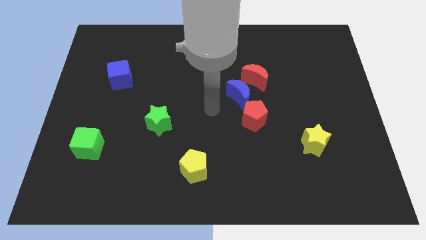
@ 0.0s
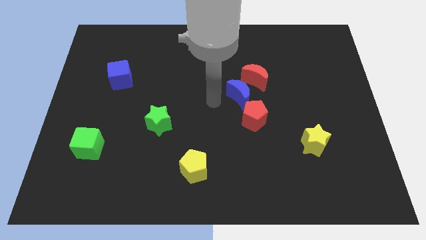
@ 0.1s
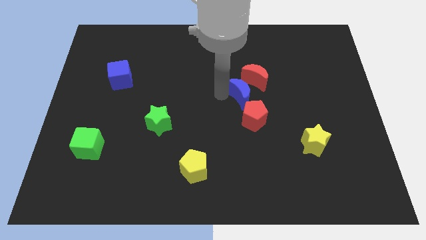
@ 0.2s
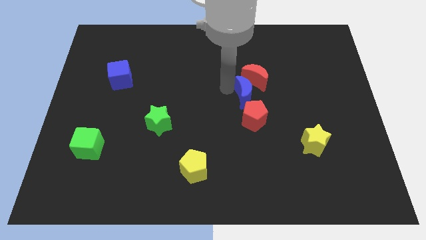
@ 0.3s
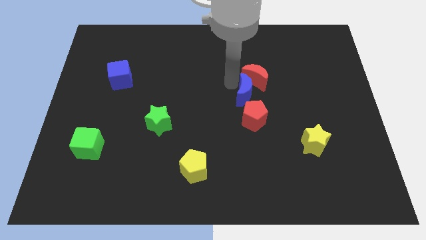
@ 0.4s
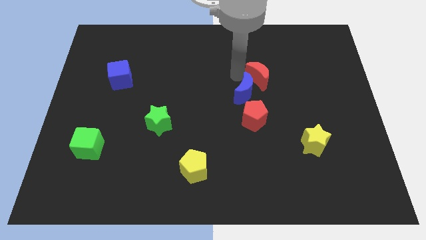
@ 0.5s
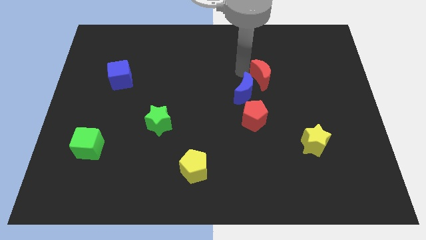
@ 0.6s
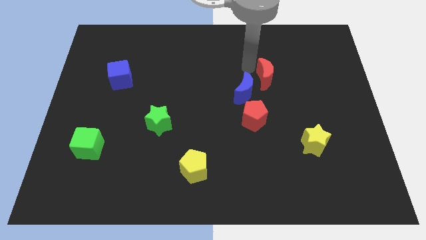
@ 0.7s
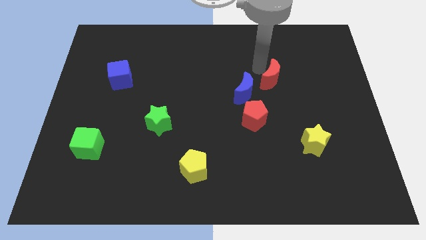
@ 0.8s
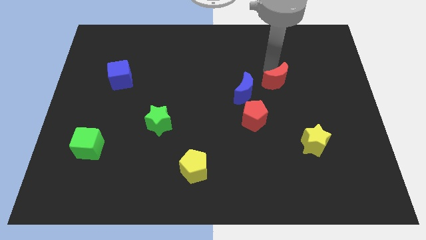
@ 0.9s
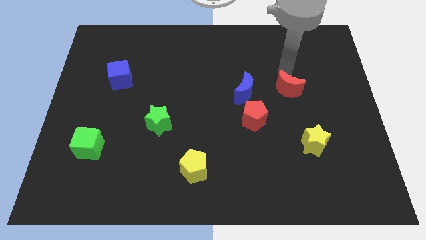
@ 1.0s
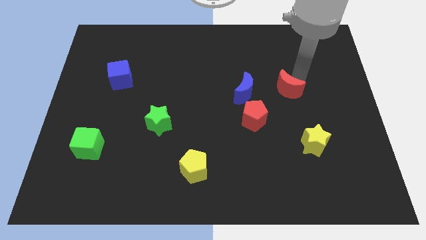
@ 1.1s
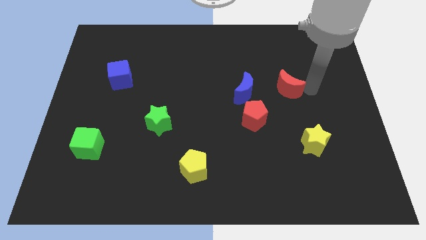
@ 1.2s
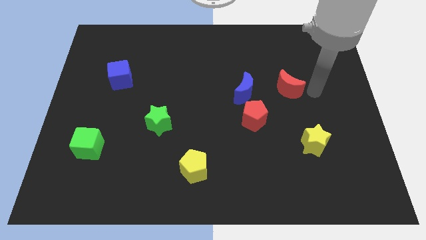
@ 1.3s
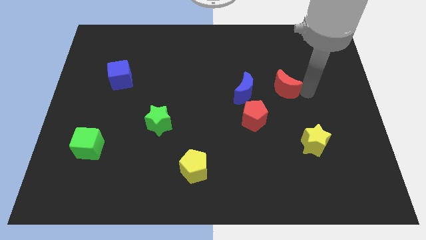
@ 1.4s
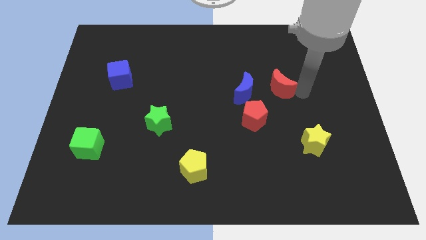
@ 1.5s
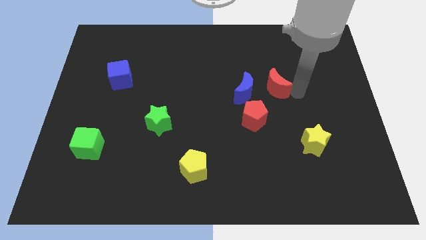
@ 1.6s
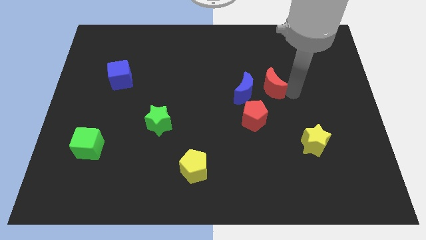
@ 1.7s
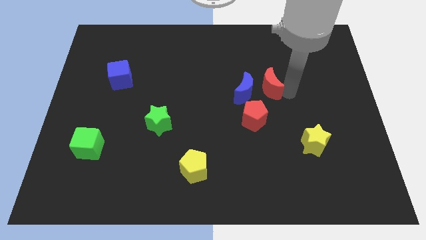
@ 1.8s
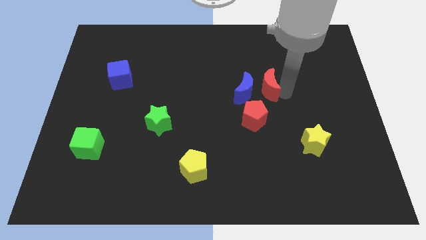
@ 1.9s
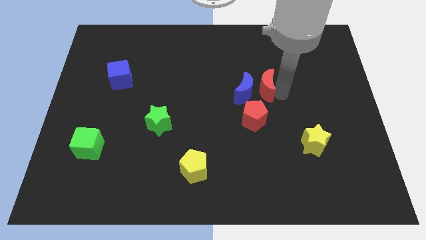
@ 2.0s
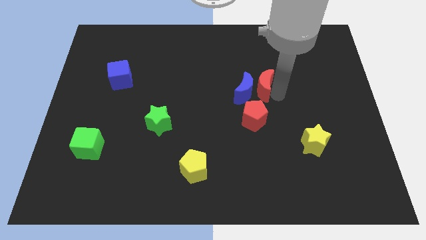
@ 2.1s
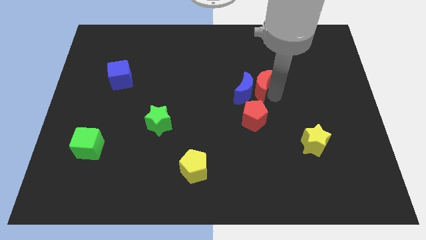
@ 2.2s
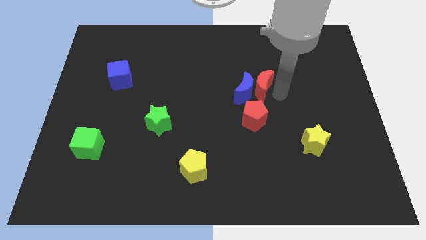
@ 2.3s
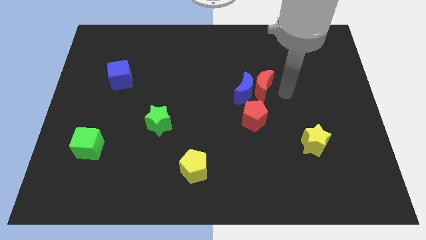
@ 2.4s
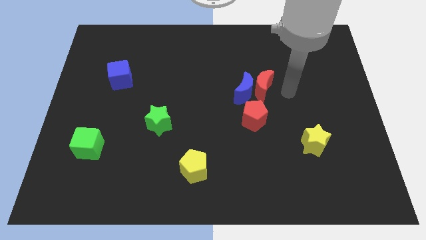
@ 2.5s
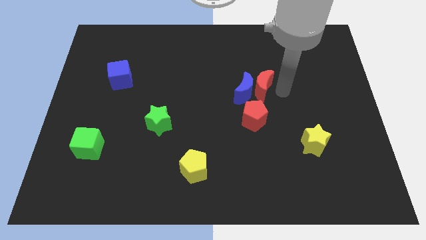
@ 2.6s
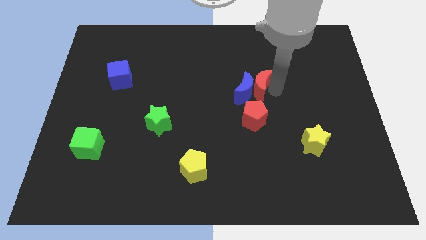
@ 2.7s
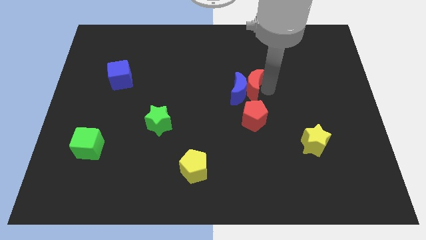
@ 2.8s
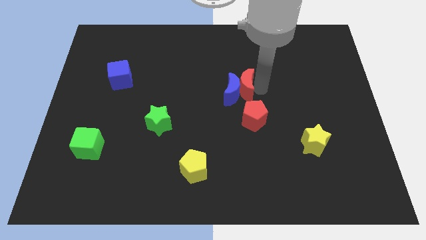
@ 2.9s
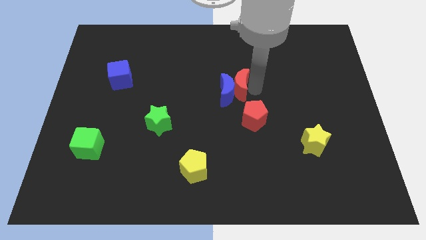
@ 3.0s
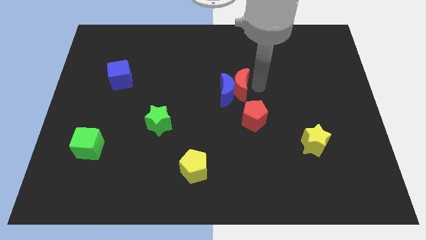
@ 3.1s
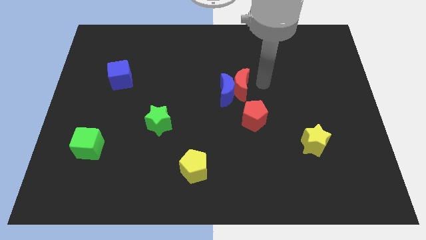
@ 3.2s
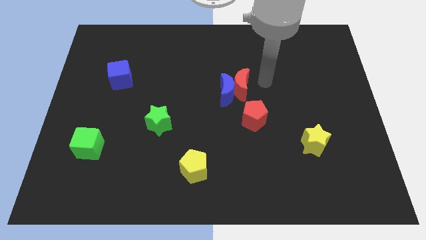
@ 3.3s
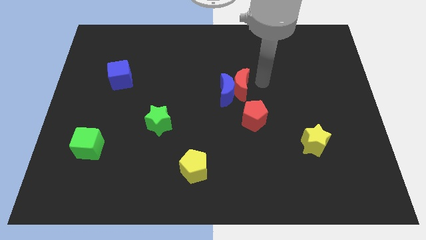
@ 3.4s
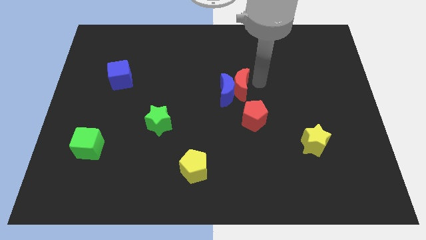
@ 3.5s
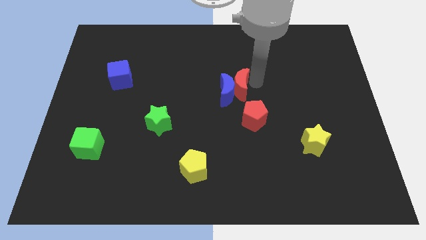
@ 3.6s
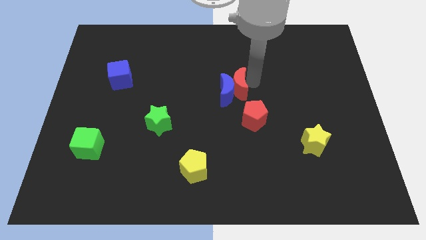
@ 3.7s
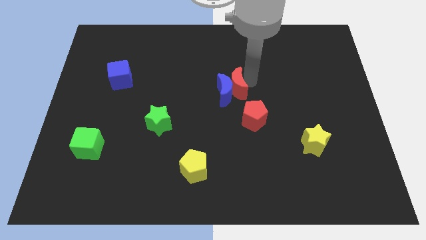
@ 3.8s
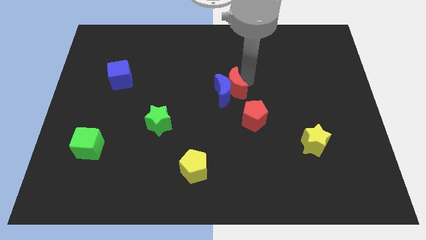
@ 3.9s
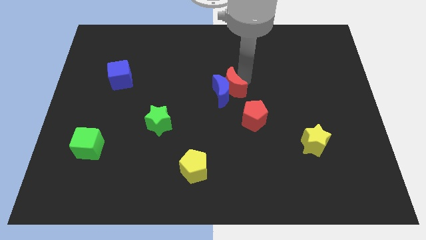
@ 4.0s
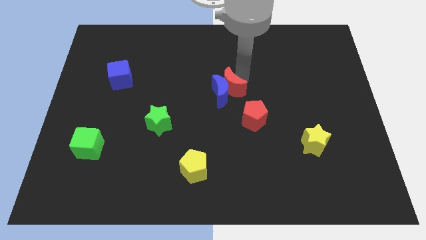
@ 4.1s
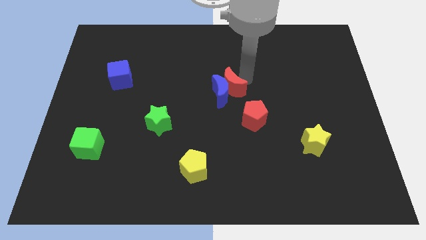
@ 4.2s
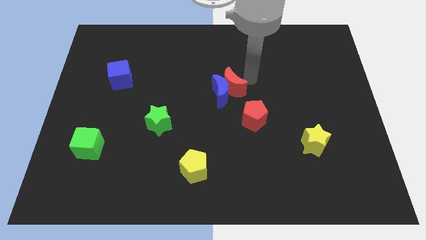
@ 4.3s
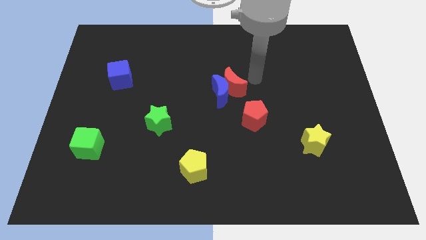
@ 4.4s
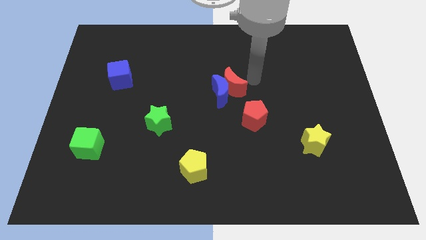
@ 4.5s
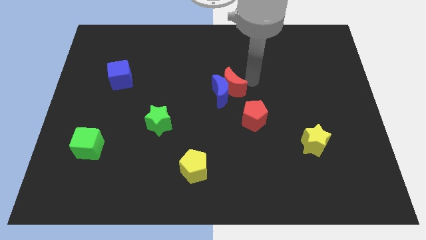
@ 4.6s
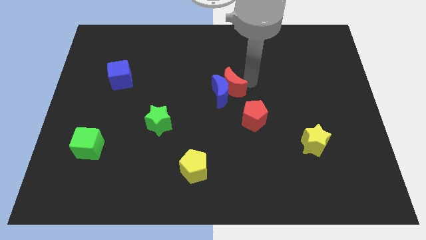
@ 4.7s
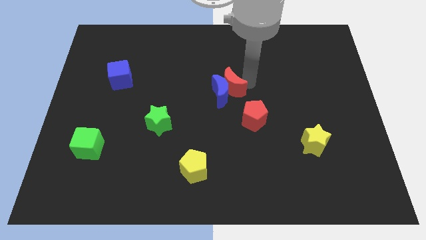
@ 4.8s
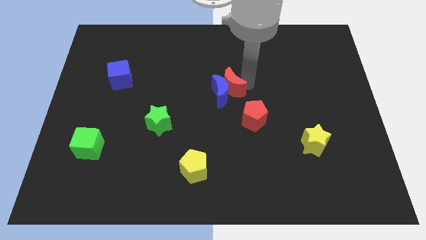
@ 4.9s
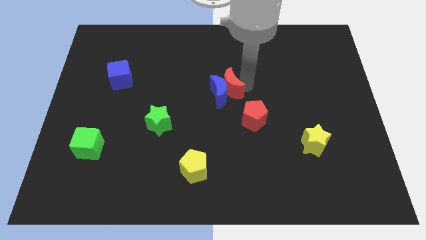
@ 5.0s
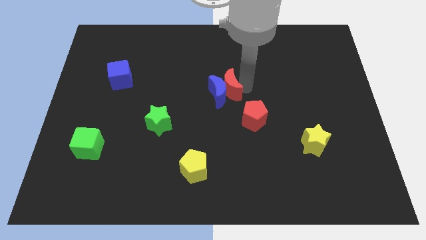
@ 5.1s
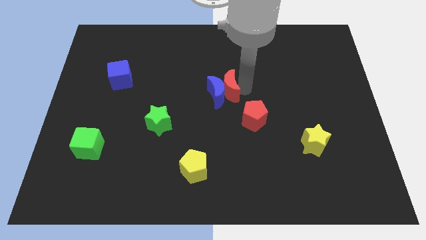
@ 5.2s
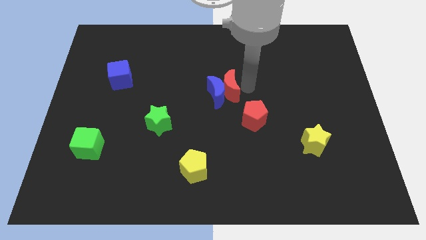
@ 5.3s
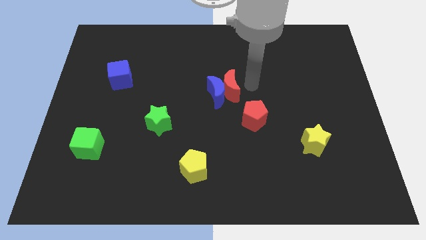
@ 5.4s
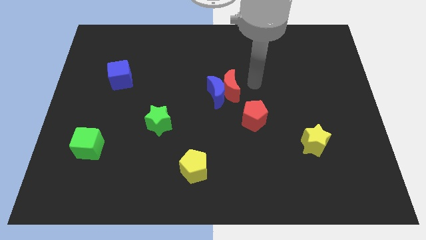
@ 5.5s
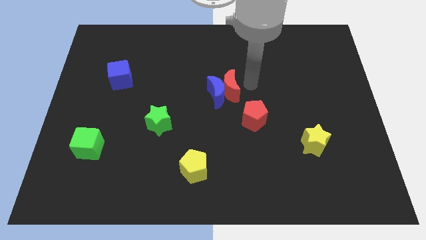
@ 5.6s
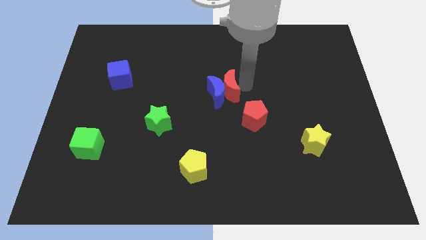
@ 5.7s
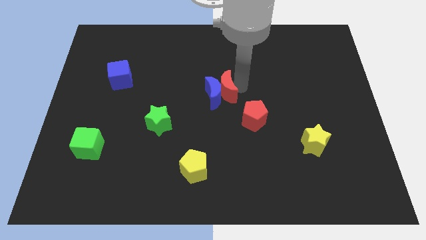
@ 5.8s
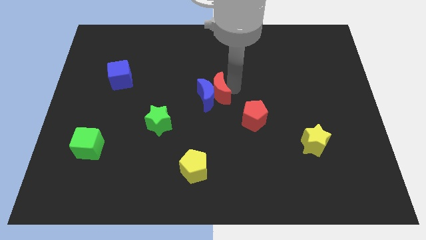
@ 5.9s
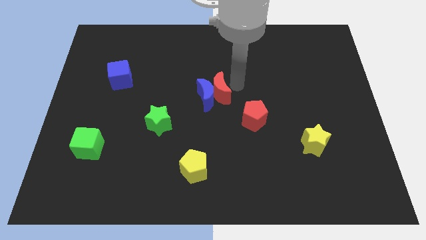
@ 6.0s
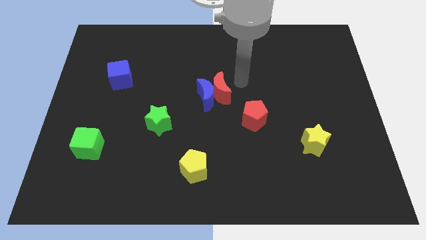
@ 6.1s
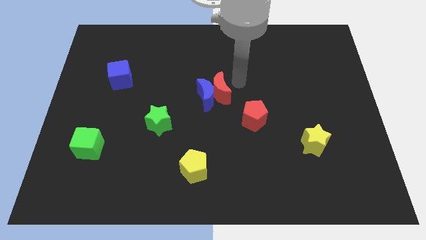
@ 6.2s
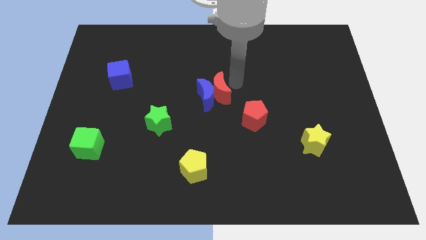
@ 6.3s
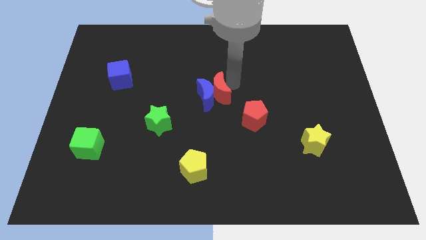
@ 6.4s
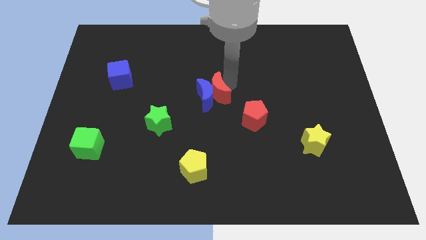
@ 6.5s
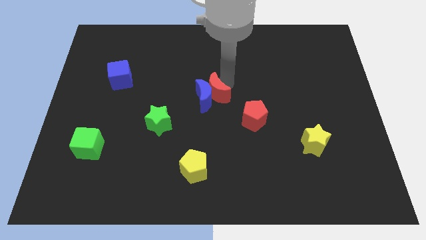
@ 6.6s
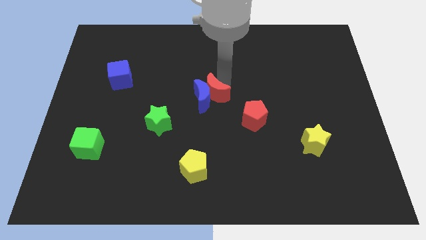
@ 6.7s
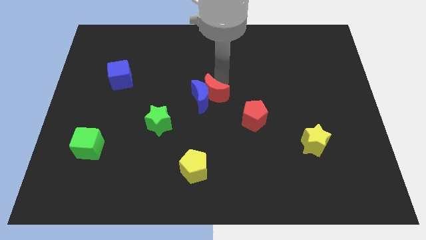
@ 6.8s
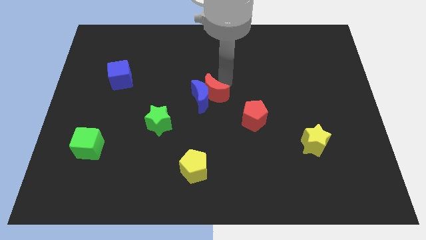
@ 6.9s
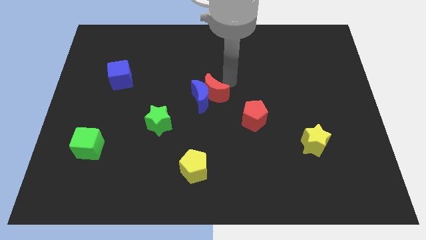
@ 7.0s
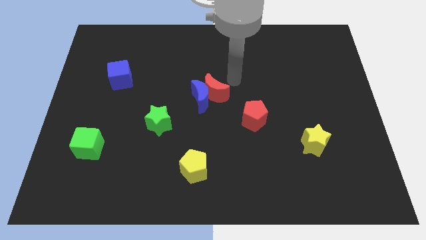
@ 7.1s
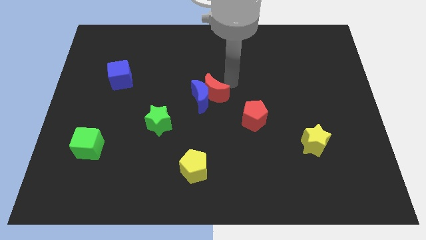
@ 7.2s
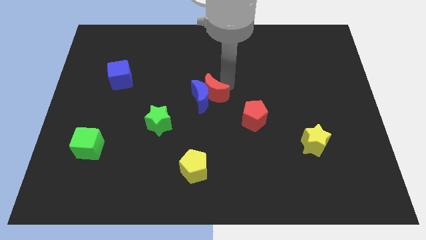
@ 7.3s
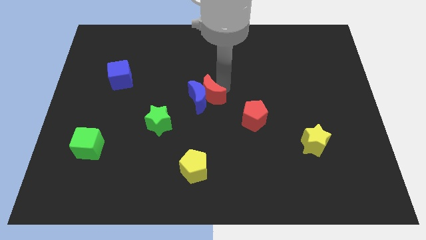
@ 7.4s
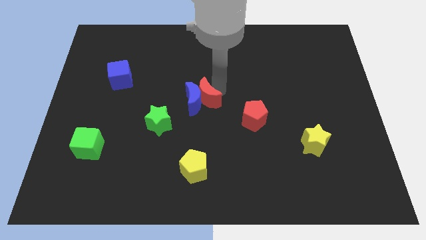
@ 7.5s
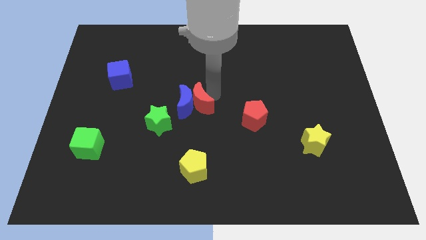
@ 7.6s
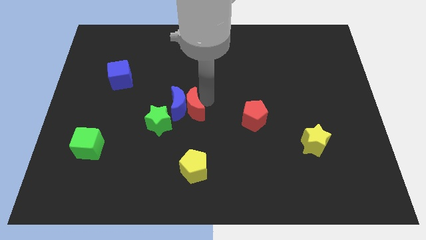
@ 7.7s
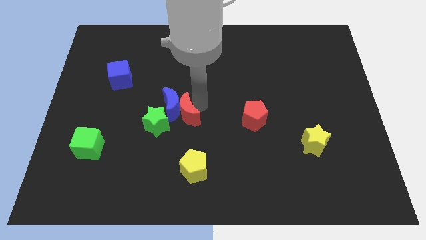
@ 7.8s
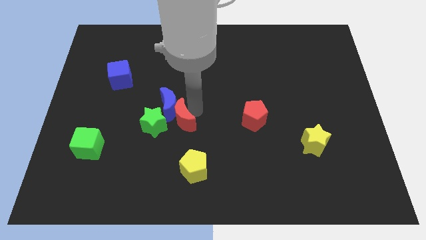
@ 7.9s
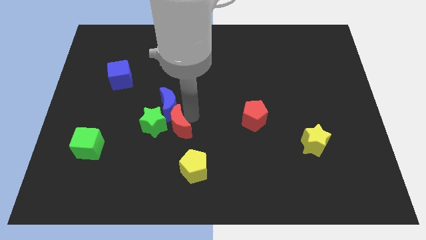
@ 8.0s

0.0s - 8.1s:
put the red moon next to the green star
